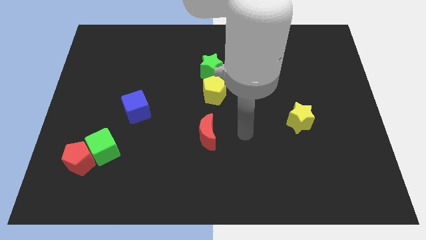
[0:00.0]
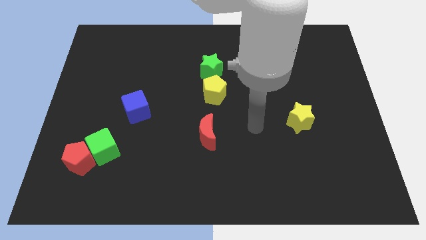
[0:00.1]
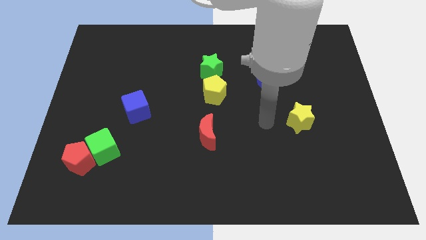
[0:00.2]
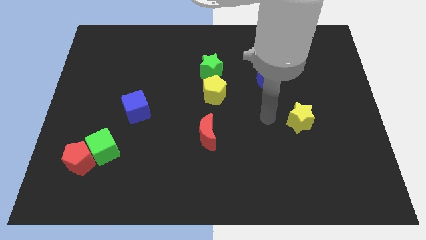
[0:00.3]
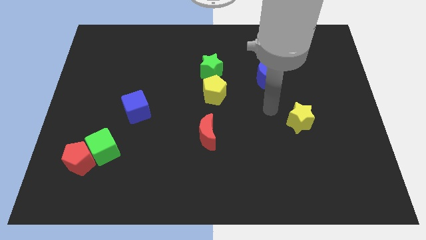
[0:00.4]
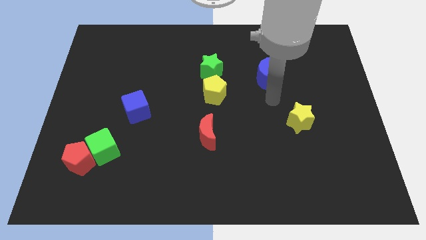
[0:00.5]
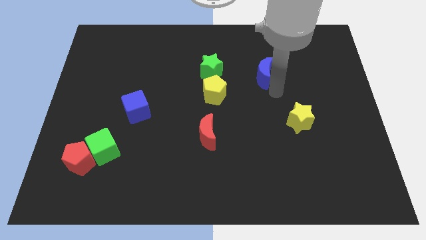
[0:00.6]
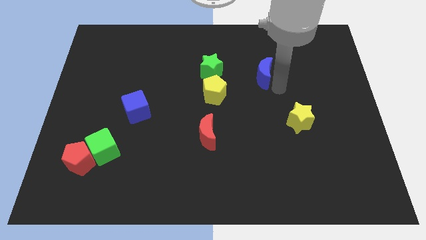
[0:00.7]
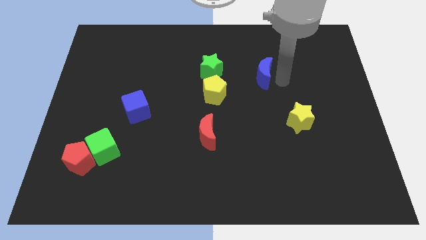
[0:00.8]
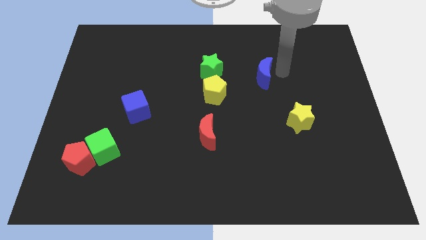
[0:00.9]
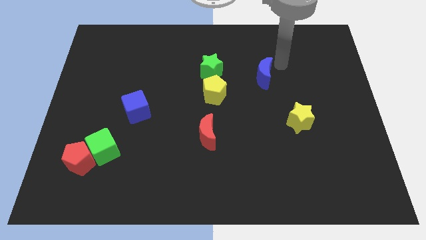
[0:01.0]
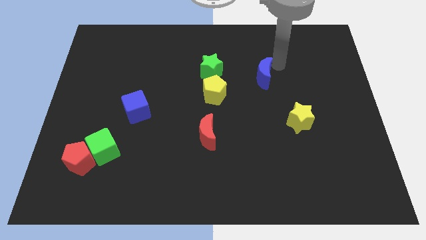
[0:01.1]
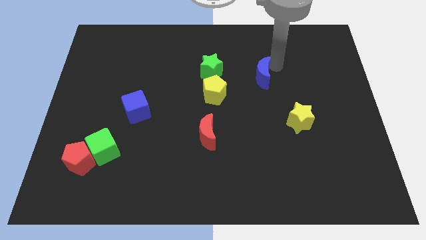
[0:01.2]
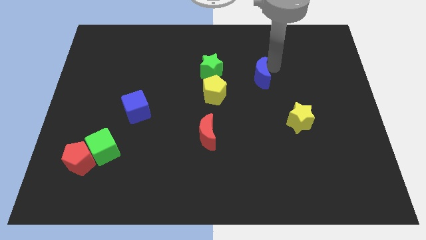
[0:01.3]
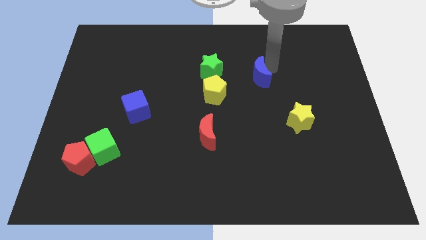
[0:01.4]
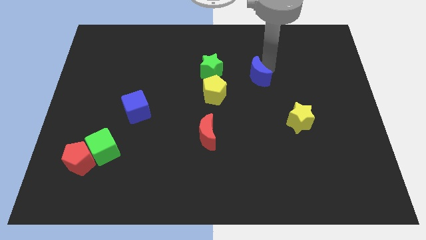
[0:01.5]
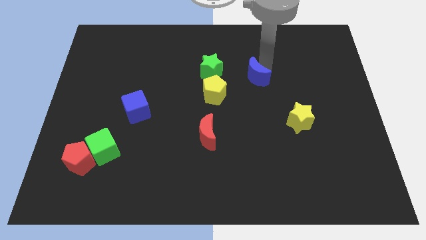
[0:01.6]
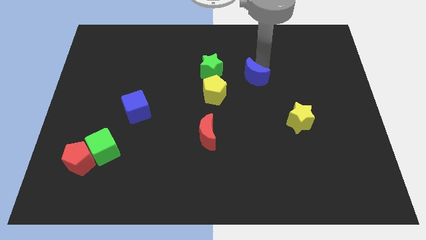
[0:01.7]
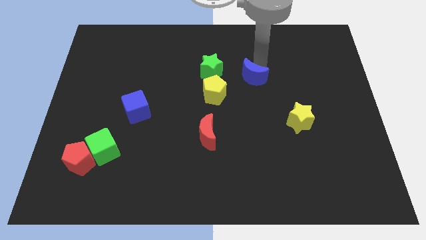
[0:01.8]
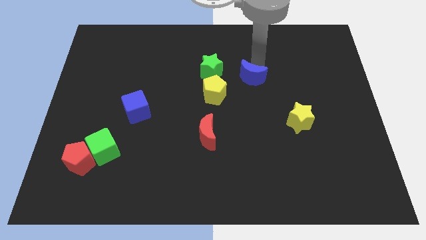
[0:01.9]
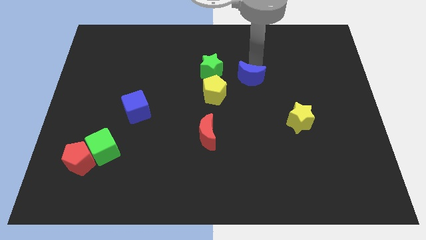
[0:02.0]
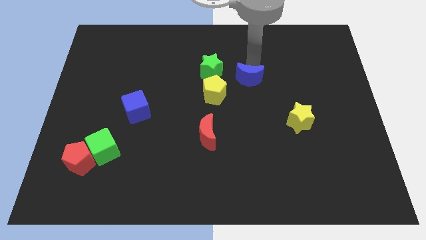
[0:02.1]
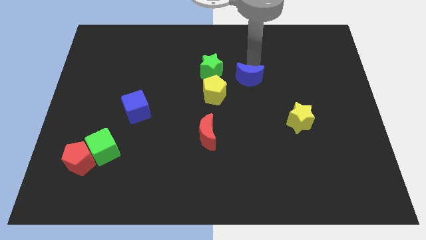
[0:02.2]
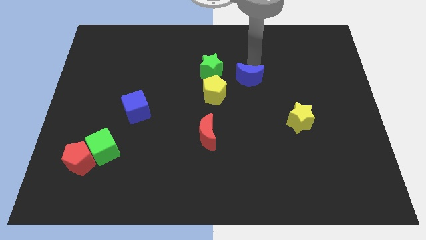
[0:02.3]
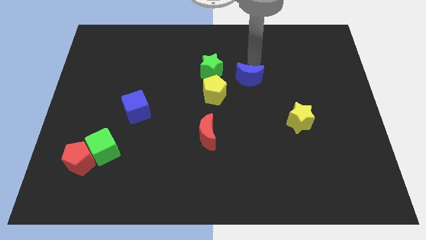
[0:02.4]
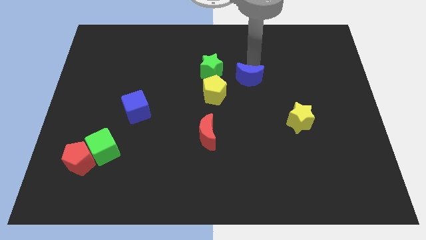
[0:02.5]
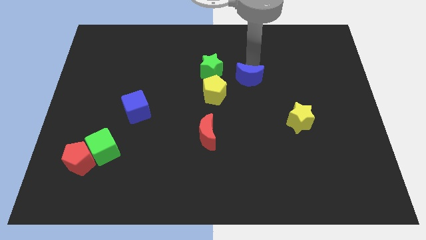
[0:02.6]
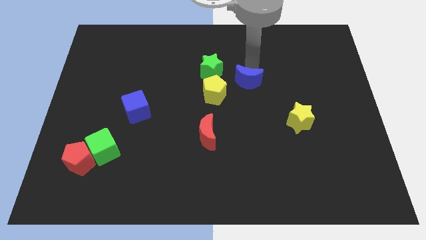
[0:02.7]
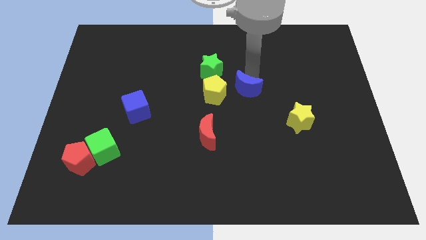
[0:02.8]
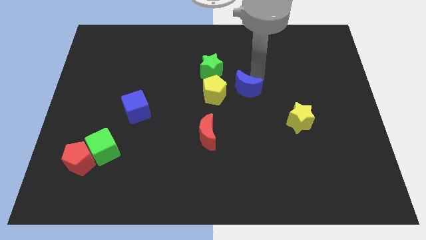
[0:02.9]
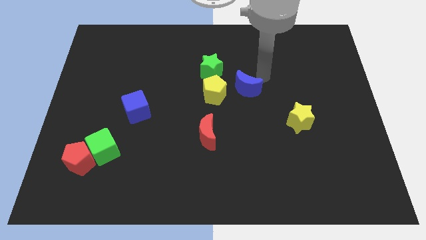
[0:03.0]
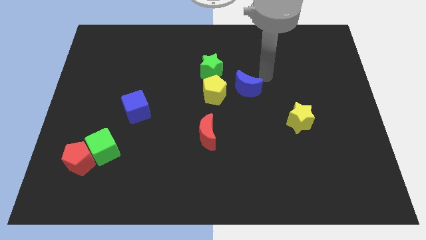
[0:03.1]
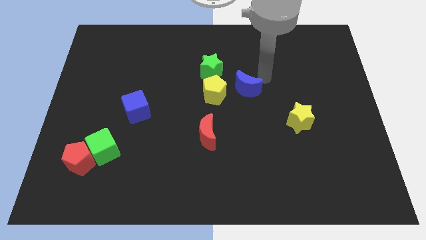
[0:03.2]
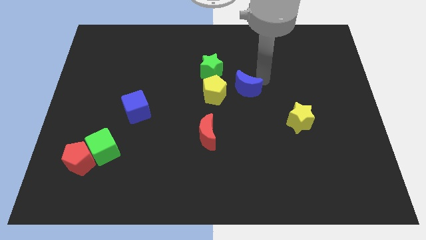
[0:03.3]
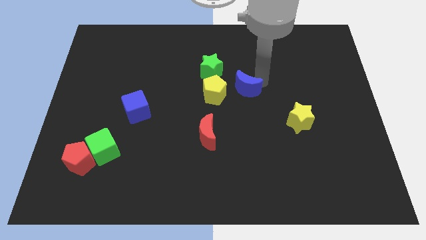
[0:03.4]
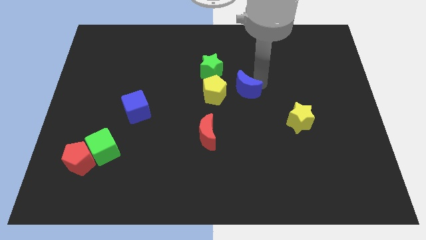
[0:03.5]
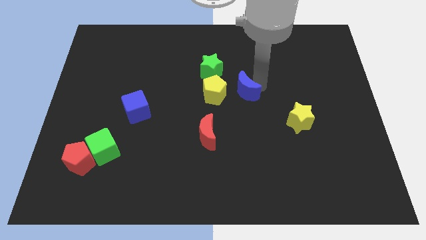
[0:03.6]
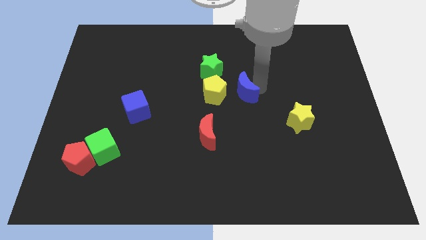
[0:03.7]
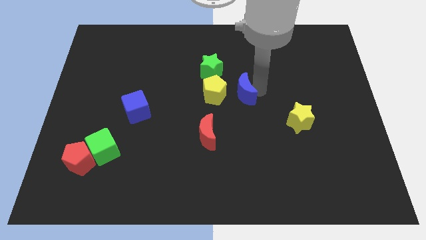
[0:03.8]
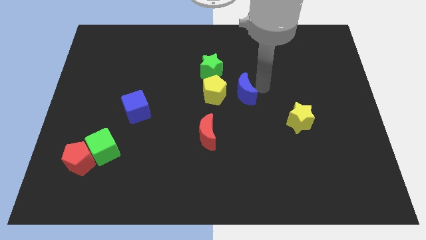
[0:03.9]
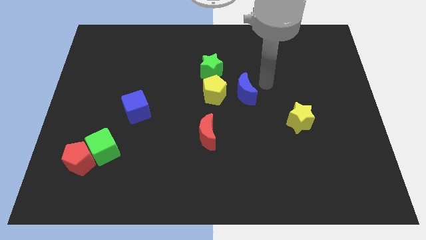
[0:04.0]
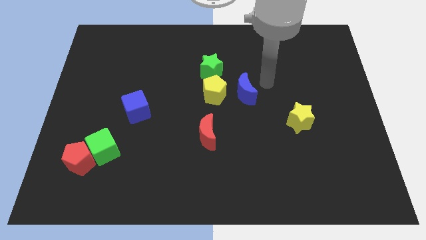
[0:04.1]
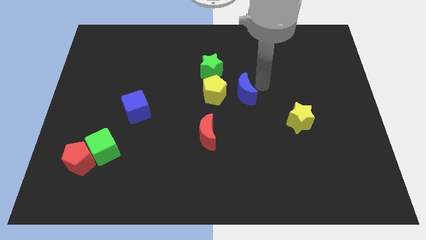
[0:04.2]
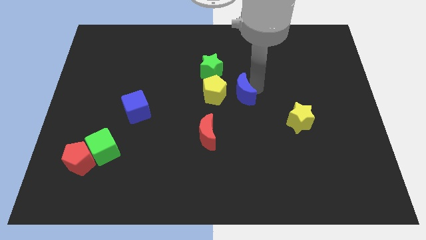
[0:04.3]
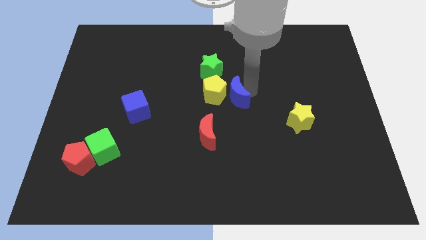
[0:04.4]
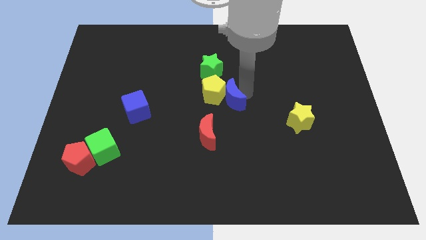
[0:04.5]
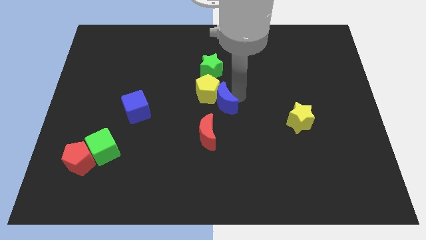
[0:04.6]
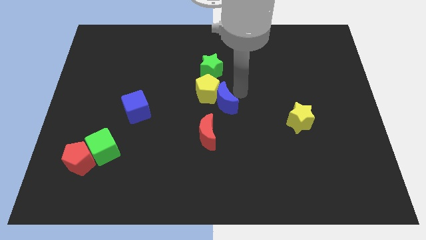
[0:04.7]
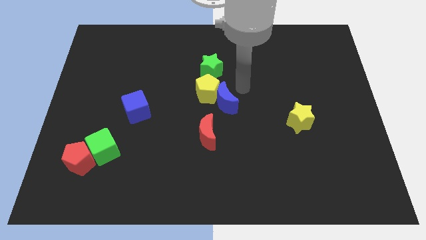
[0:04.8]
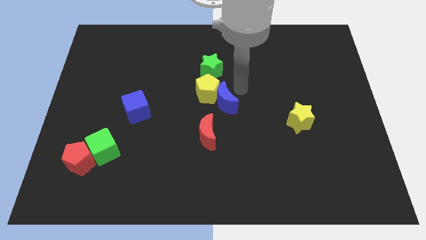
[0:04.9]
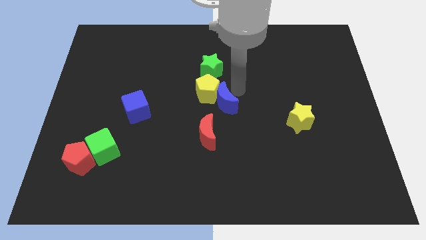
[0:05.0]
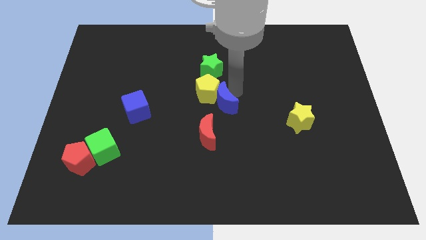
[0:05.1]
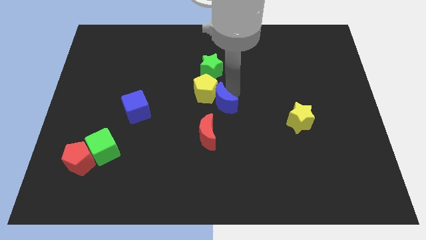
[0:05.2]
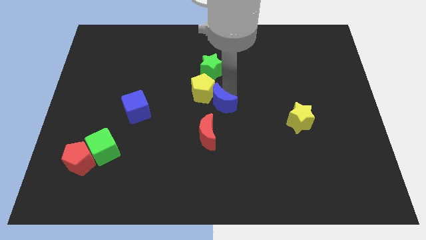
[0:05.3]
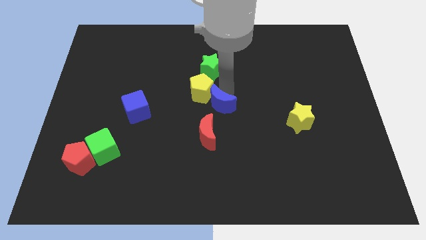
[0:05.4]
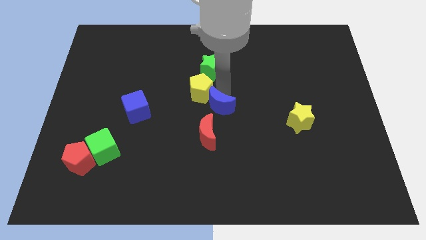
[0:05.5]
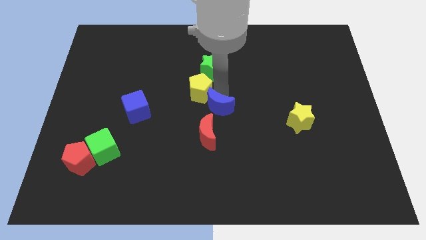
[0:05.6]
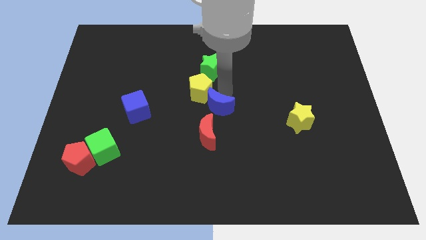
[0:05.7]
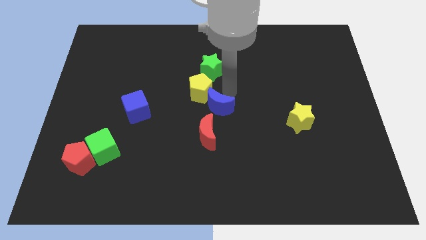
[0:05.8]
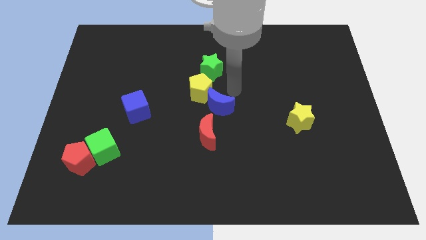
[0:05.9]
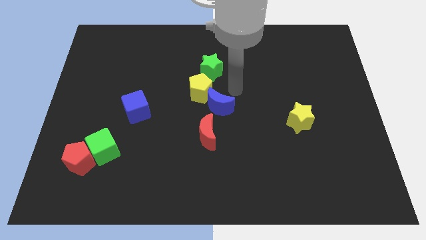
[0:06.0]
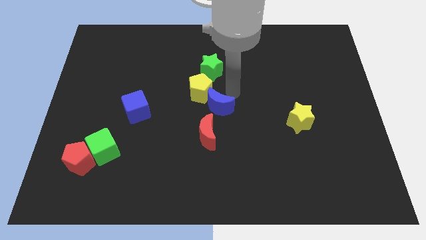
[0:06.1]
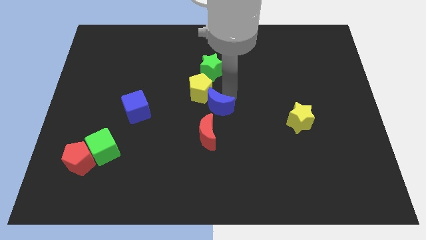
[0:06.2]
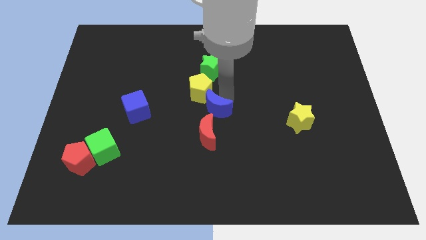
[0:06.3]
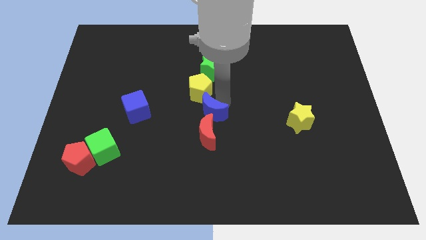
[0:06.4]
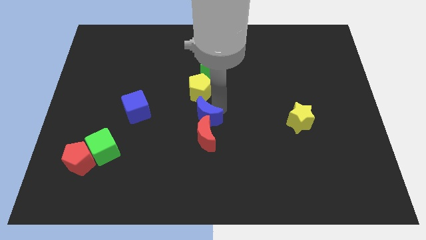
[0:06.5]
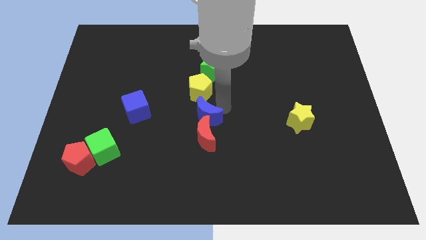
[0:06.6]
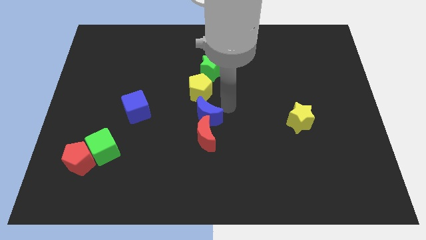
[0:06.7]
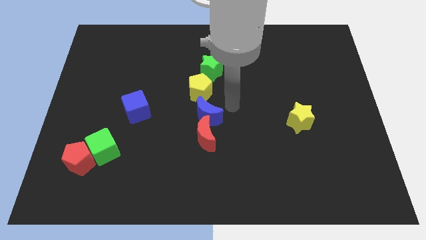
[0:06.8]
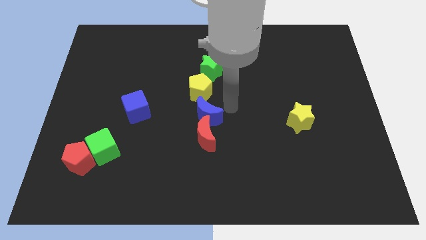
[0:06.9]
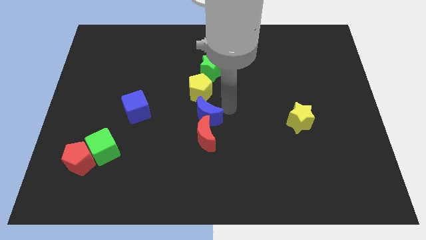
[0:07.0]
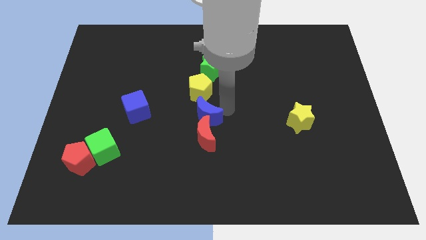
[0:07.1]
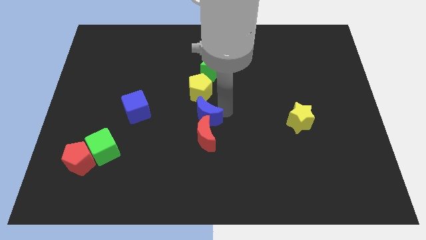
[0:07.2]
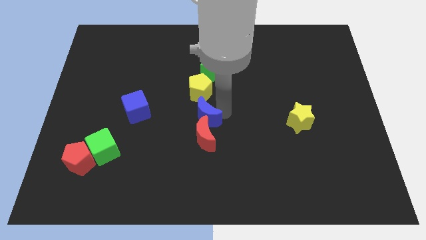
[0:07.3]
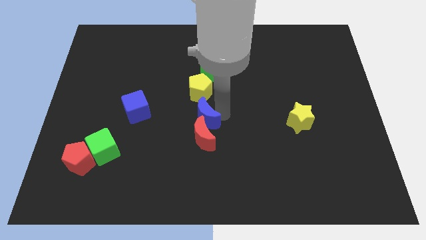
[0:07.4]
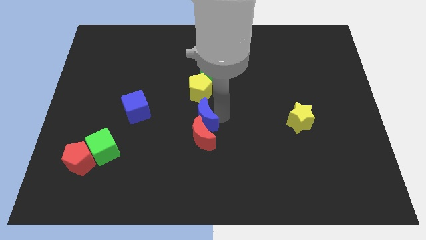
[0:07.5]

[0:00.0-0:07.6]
move the blue moon diagonally down and to the left

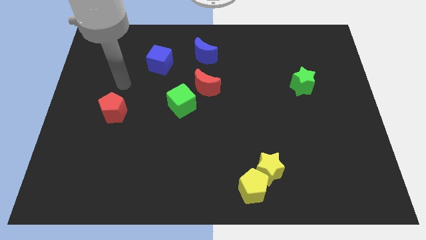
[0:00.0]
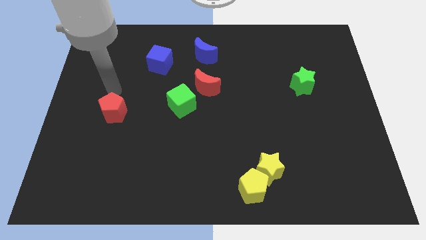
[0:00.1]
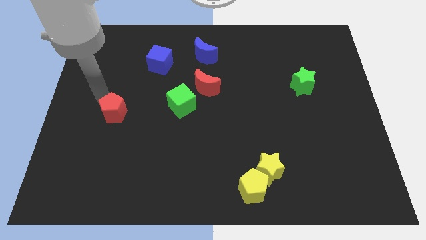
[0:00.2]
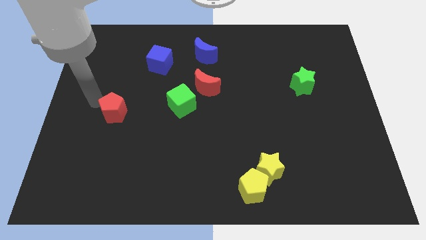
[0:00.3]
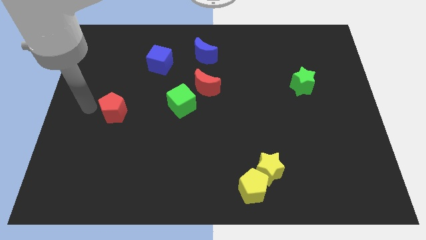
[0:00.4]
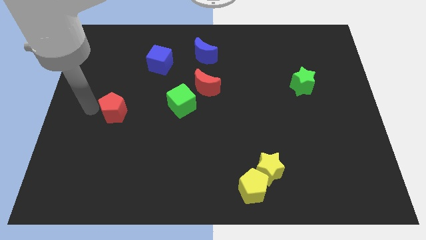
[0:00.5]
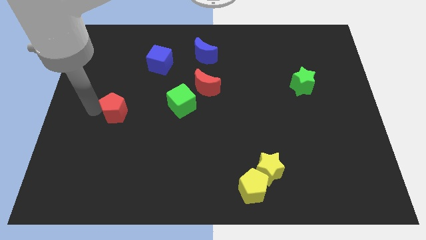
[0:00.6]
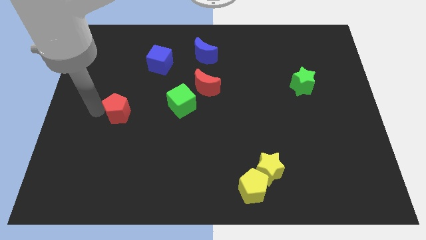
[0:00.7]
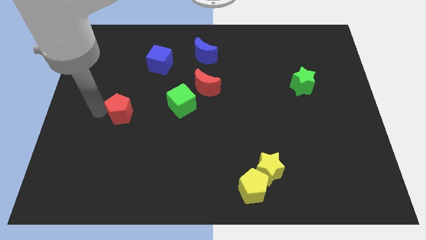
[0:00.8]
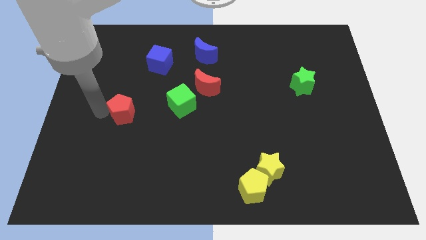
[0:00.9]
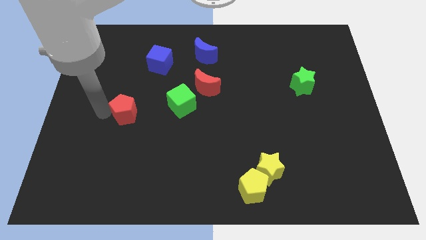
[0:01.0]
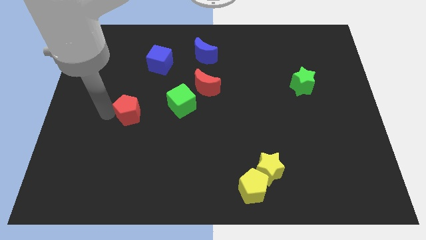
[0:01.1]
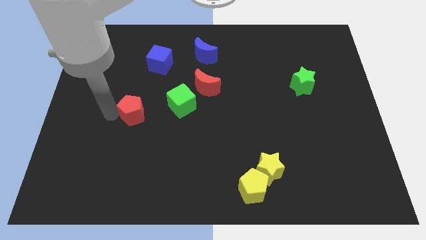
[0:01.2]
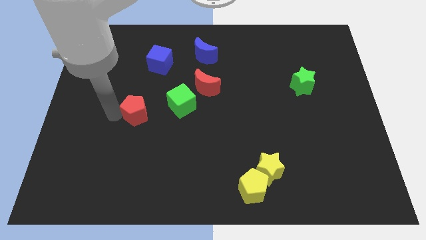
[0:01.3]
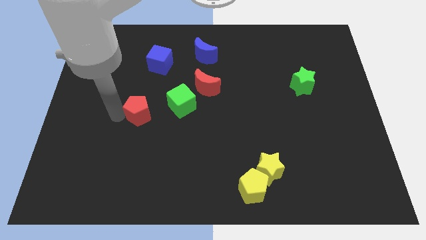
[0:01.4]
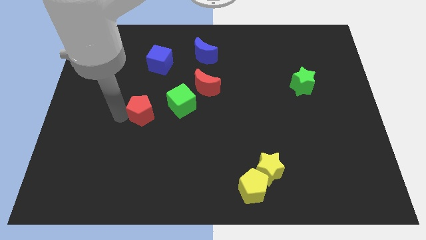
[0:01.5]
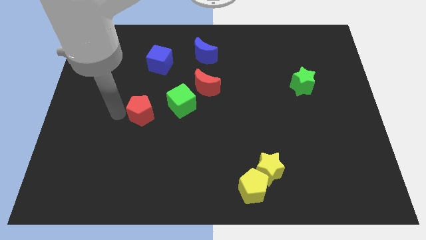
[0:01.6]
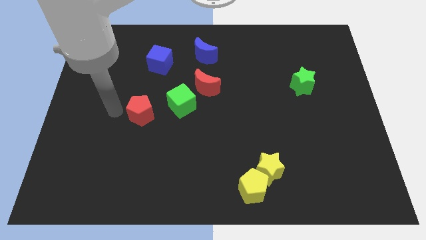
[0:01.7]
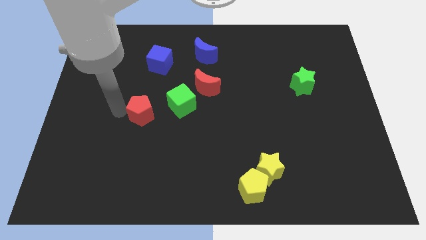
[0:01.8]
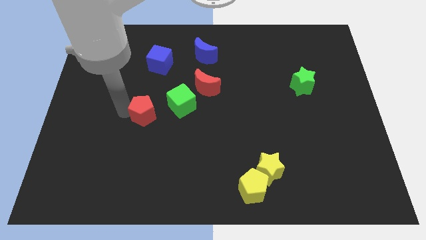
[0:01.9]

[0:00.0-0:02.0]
slide the red pentagon right a little
